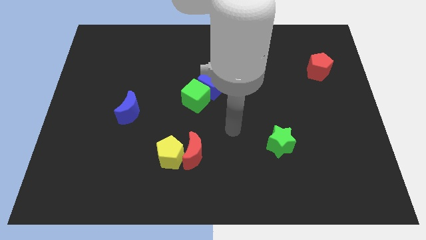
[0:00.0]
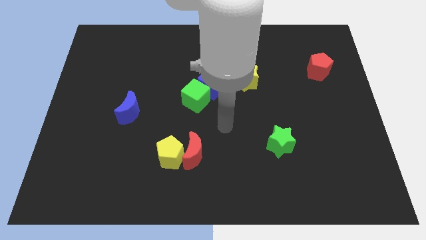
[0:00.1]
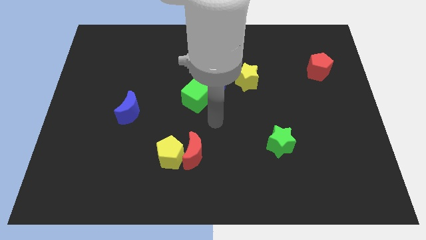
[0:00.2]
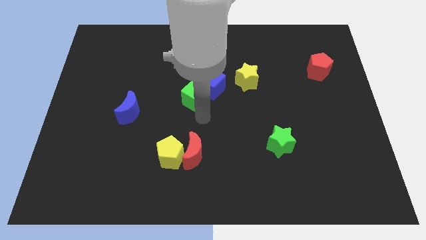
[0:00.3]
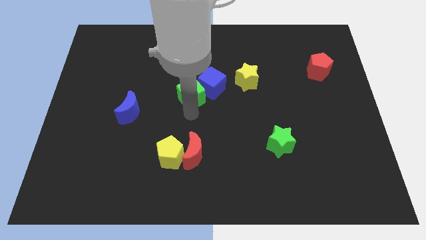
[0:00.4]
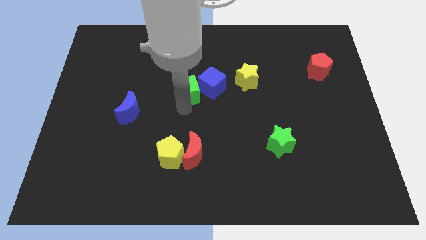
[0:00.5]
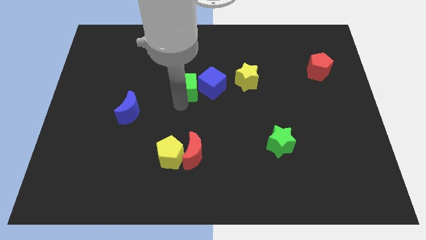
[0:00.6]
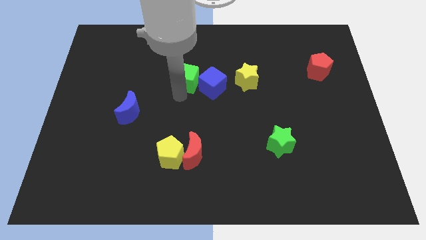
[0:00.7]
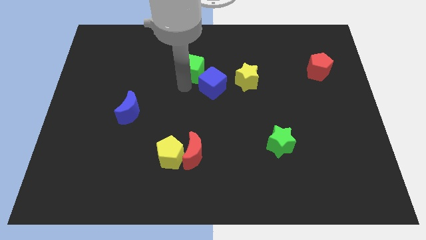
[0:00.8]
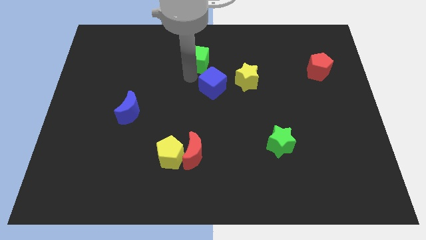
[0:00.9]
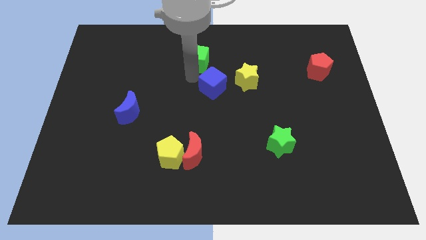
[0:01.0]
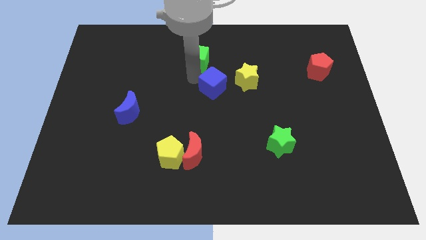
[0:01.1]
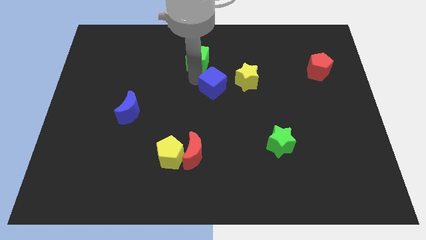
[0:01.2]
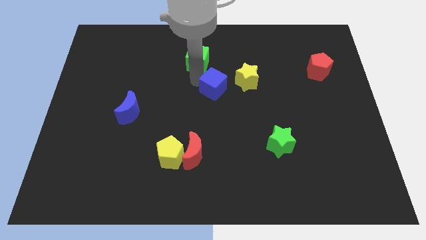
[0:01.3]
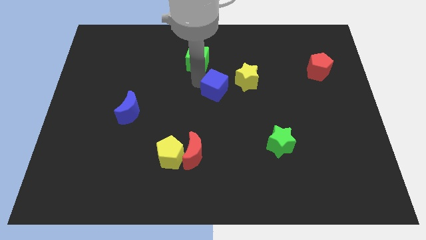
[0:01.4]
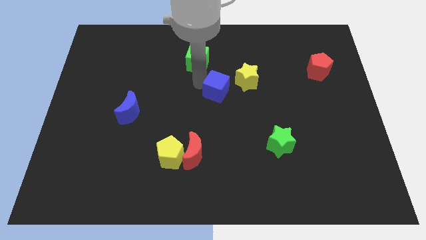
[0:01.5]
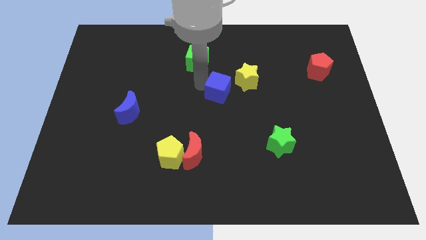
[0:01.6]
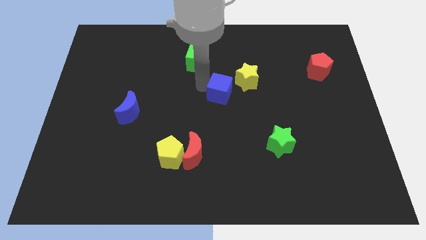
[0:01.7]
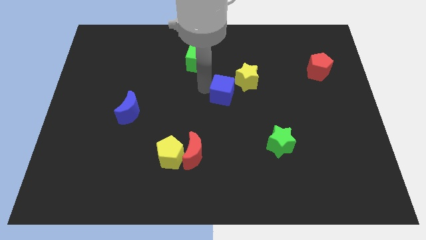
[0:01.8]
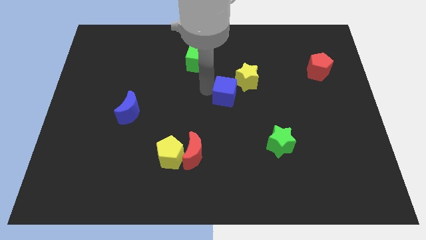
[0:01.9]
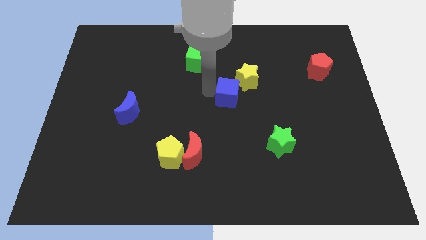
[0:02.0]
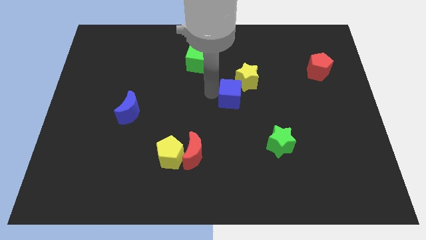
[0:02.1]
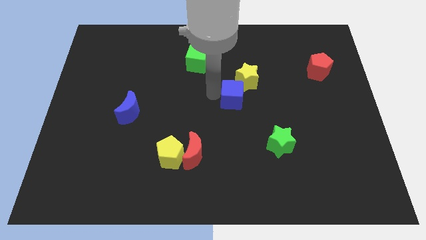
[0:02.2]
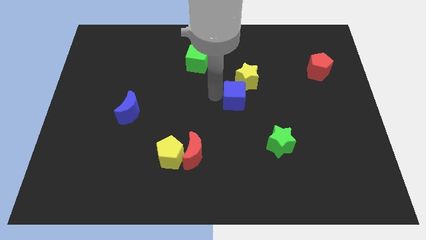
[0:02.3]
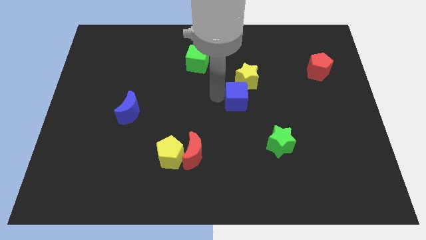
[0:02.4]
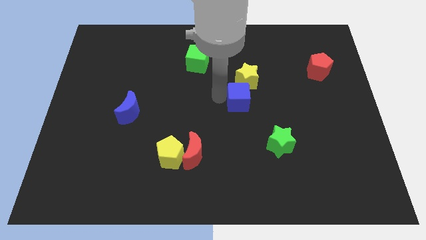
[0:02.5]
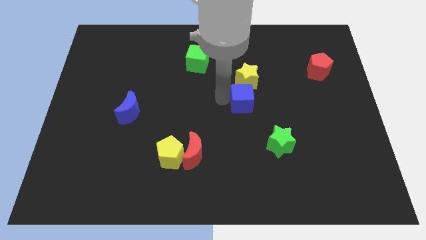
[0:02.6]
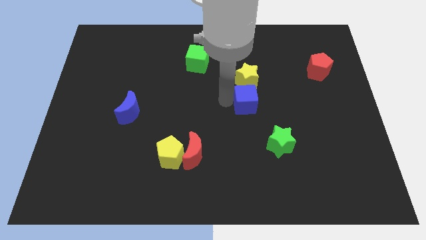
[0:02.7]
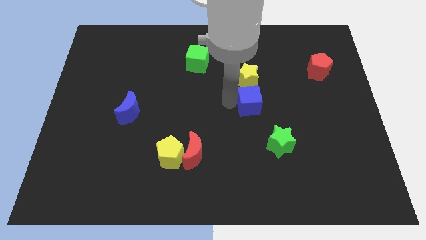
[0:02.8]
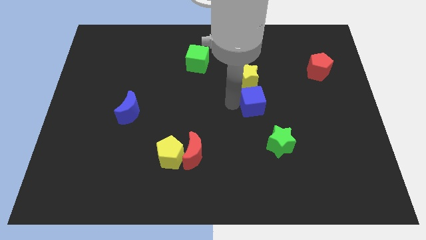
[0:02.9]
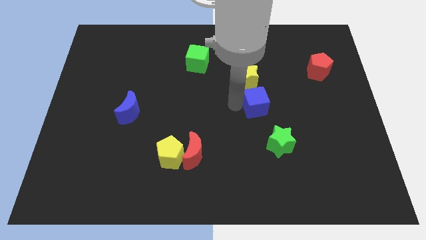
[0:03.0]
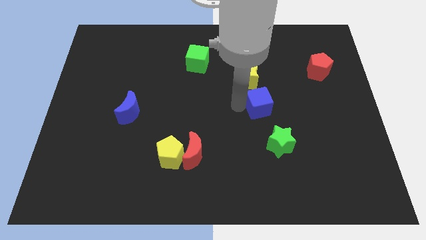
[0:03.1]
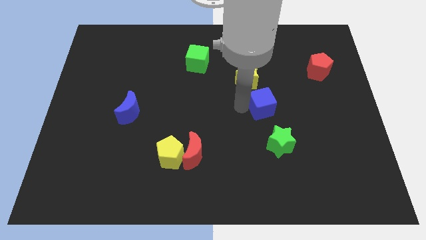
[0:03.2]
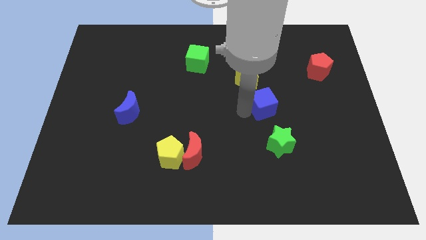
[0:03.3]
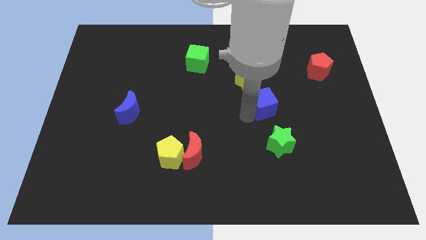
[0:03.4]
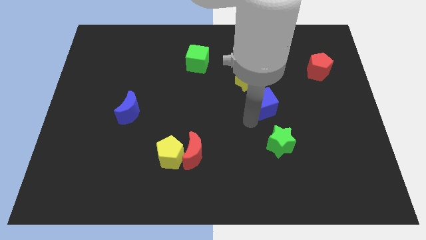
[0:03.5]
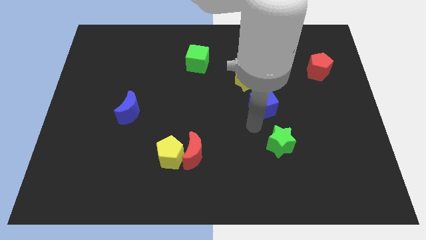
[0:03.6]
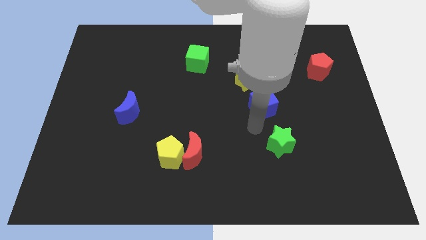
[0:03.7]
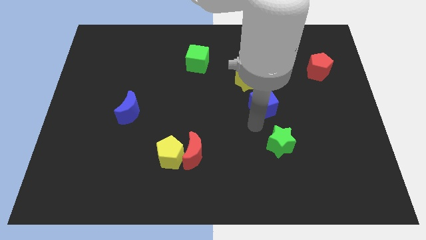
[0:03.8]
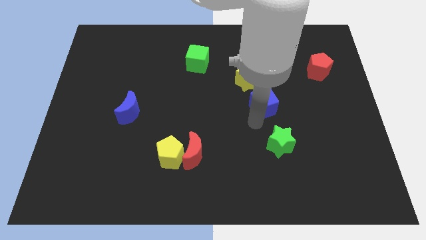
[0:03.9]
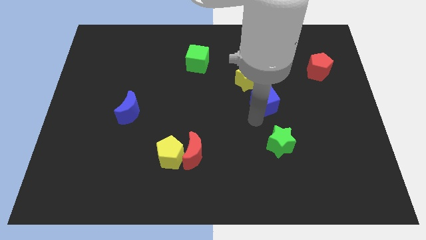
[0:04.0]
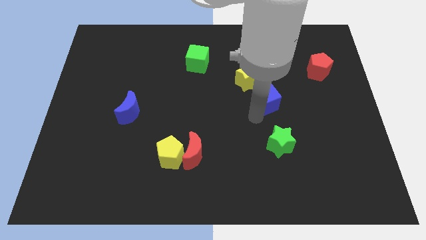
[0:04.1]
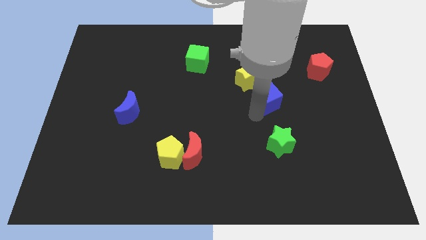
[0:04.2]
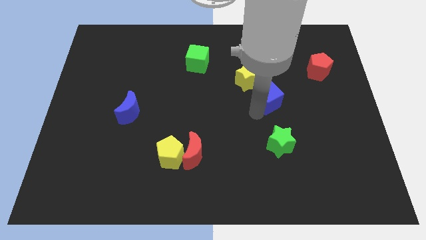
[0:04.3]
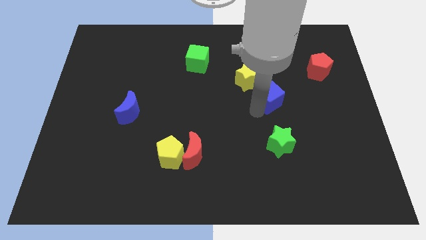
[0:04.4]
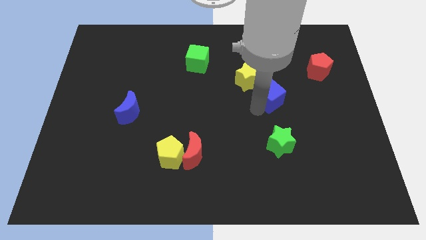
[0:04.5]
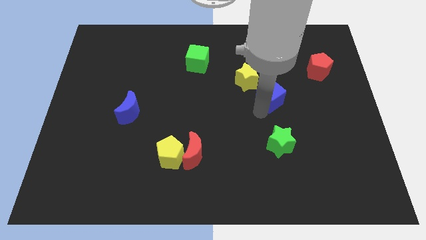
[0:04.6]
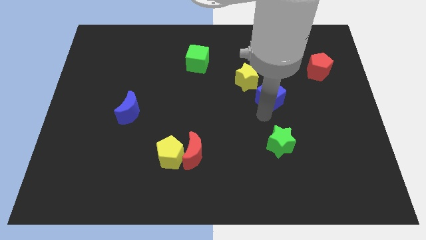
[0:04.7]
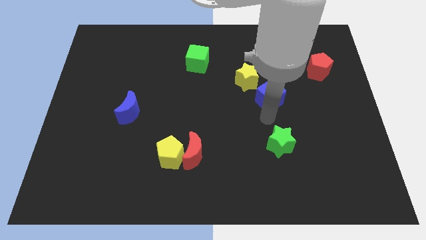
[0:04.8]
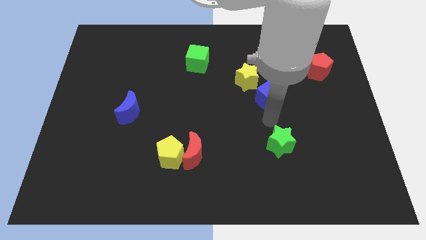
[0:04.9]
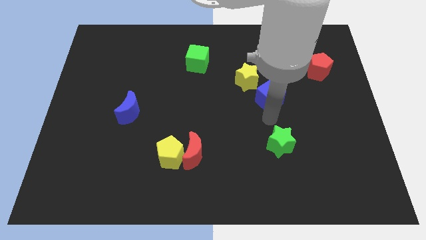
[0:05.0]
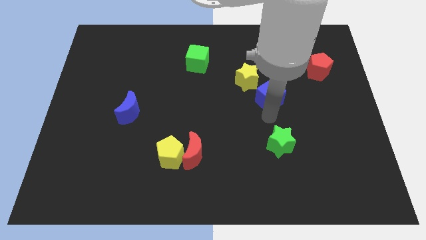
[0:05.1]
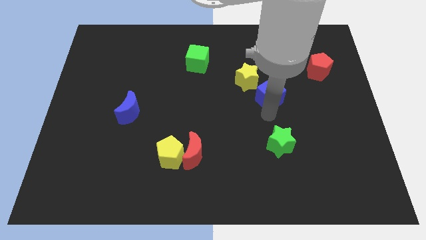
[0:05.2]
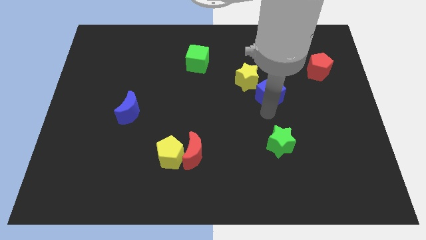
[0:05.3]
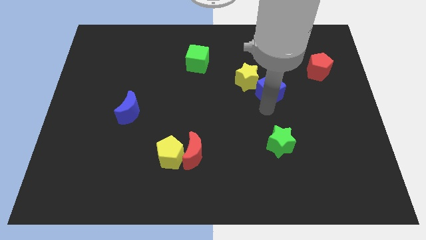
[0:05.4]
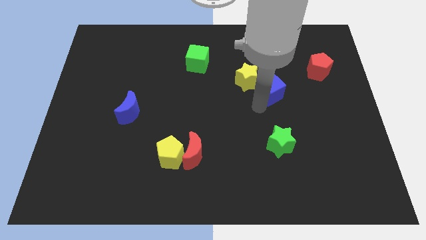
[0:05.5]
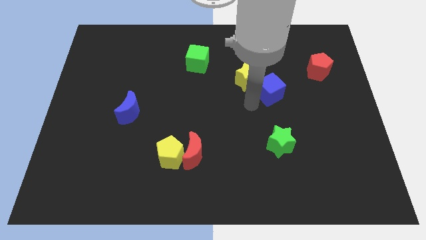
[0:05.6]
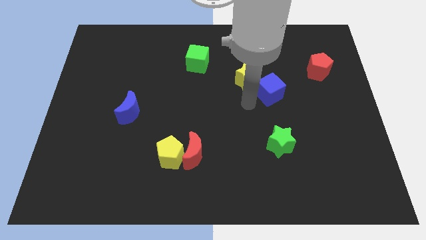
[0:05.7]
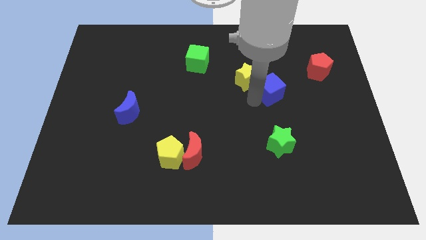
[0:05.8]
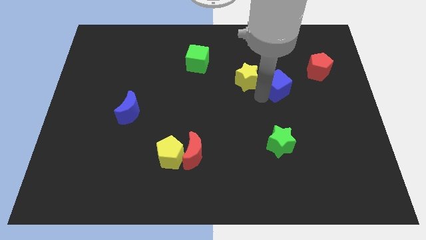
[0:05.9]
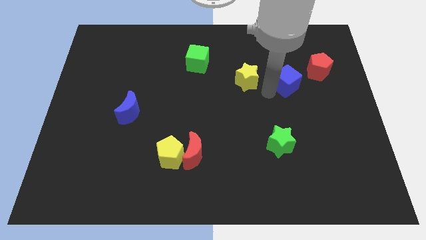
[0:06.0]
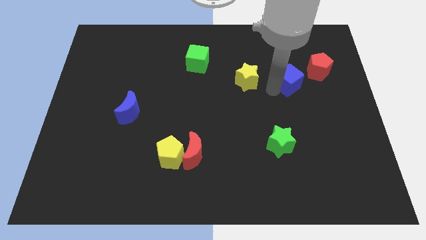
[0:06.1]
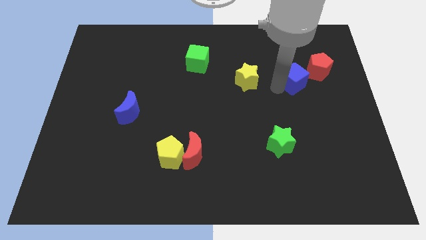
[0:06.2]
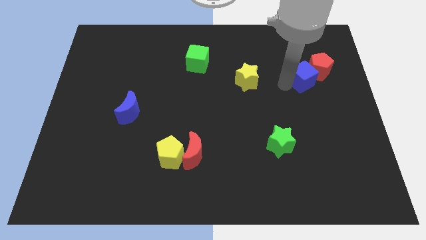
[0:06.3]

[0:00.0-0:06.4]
slide the blue cube next to the red pentagon
